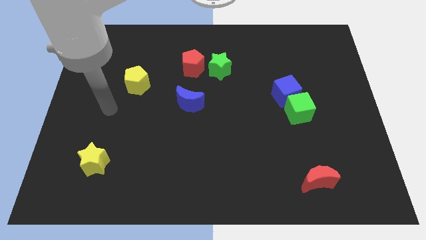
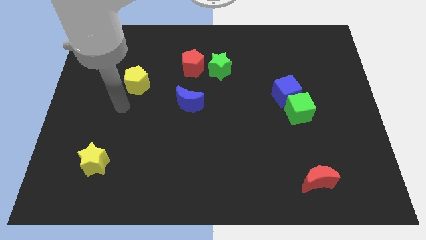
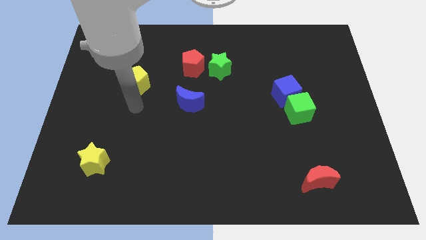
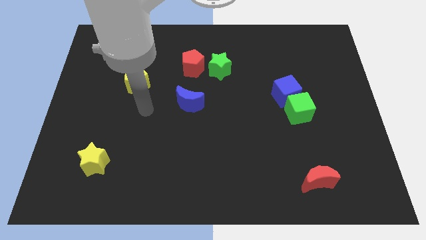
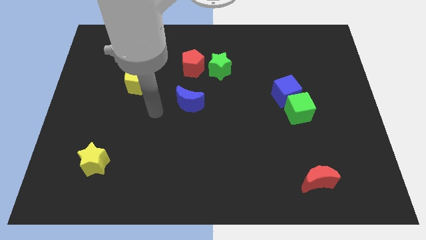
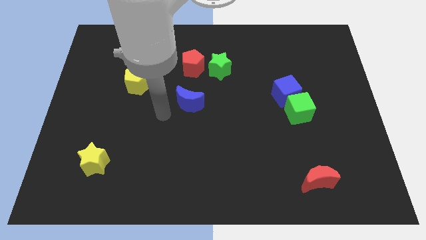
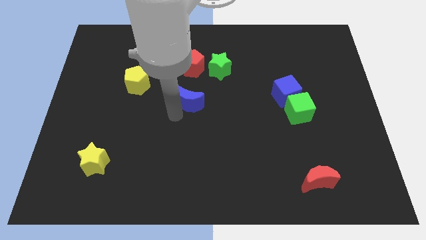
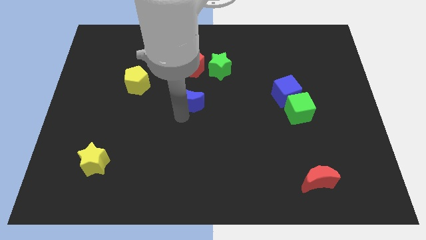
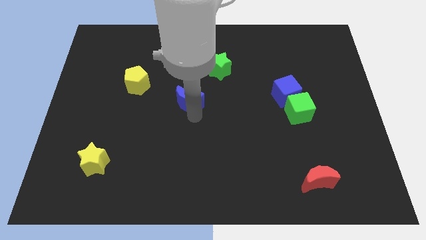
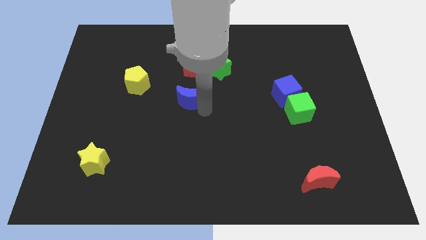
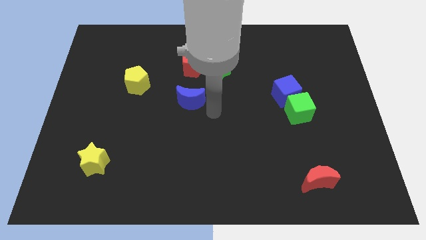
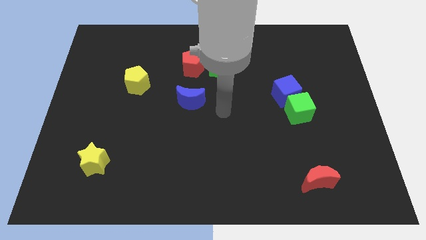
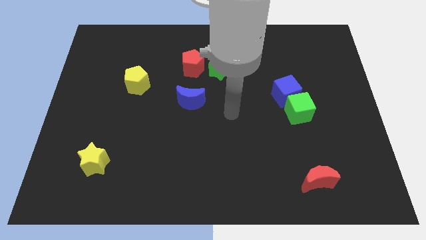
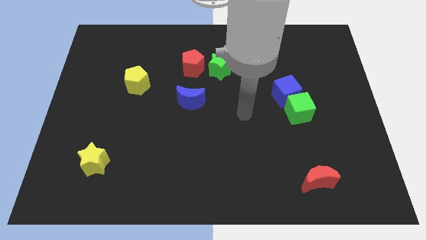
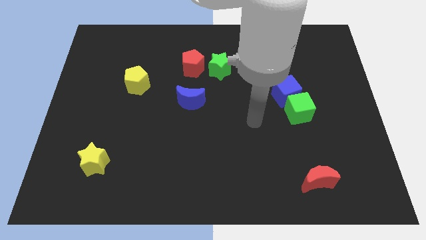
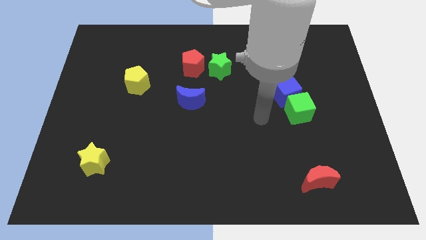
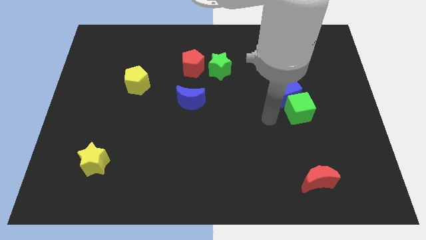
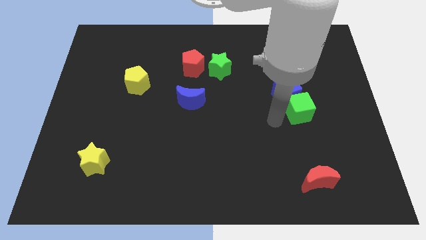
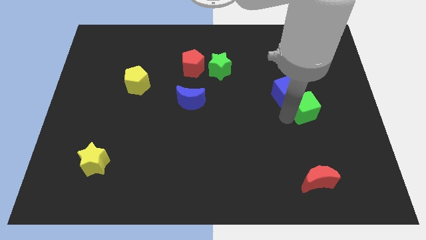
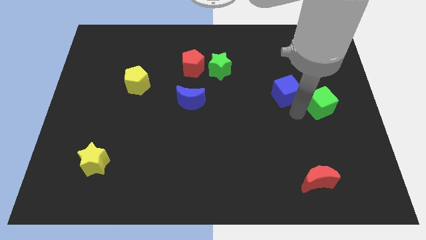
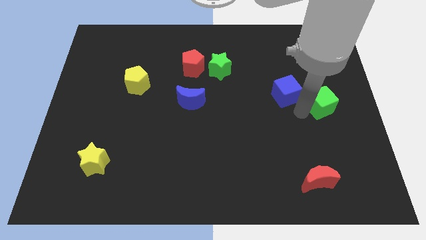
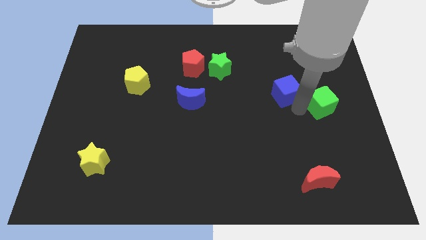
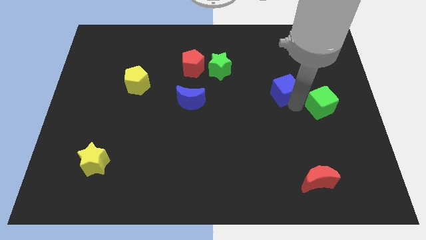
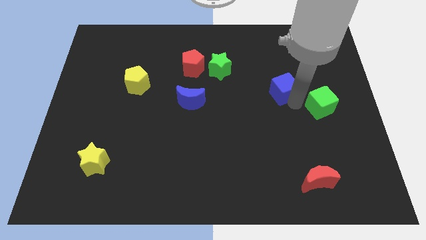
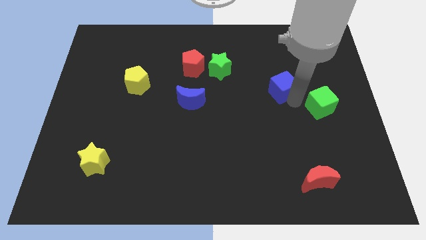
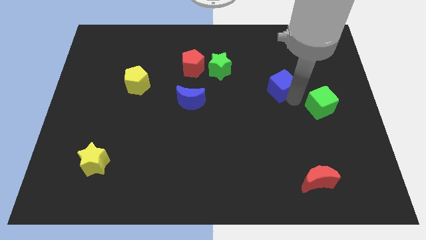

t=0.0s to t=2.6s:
move the blue cube away from the green cube

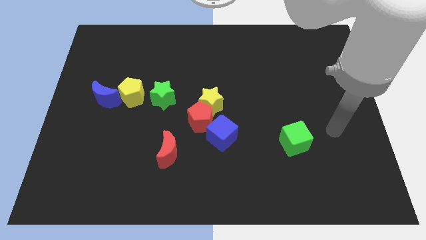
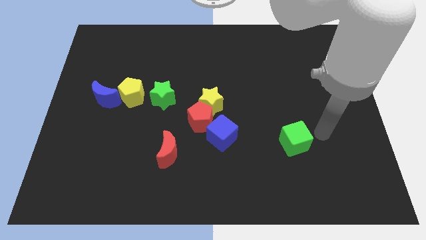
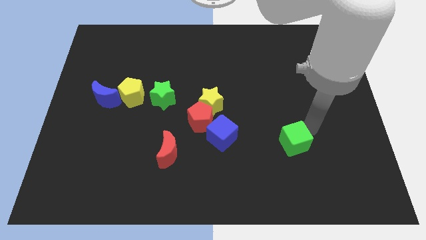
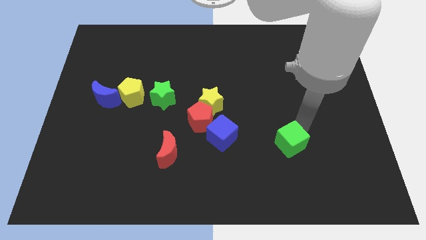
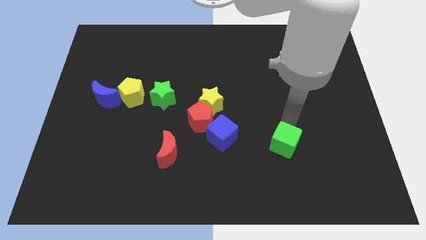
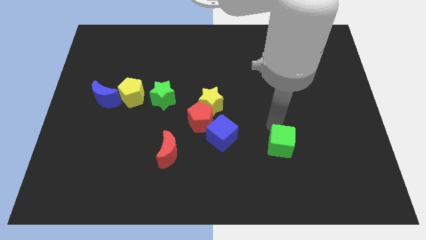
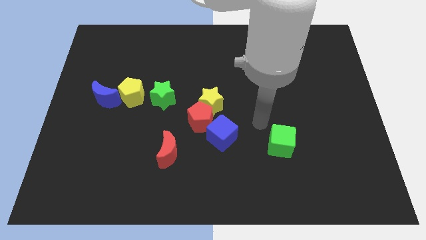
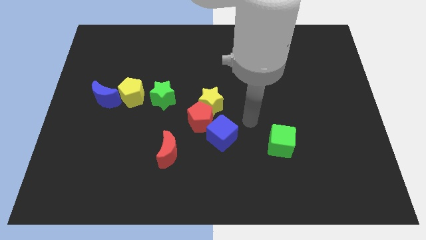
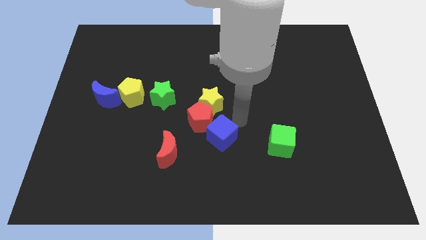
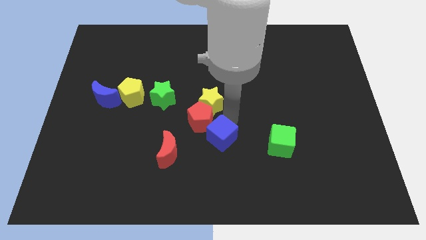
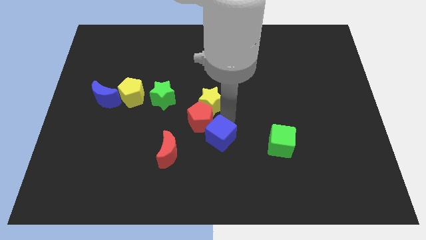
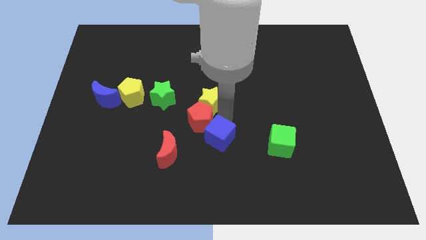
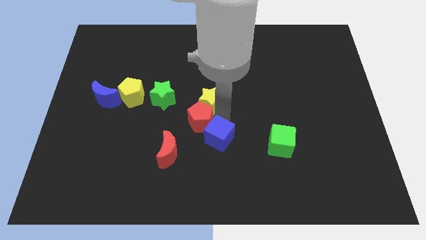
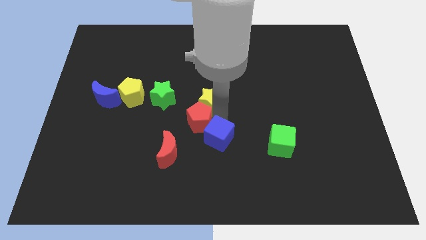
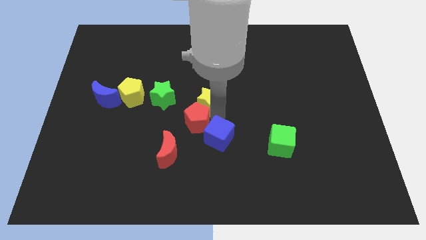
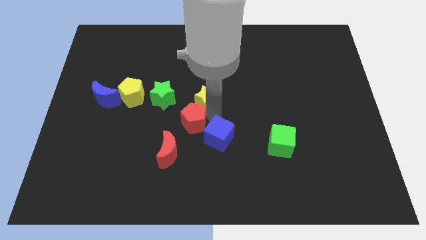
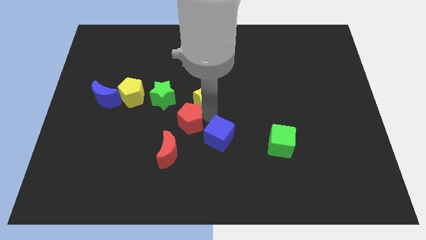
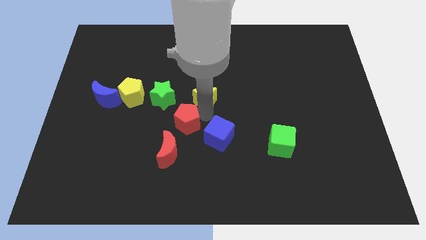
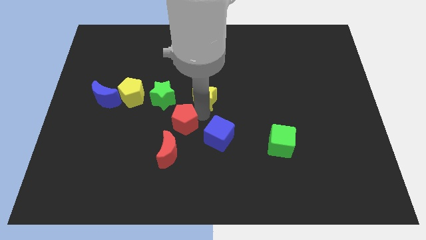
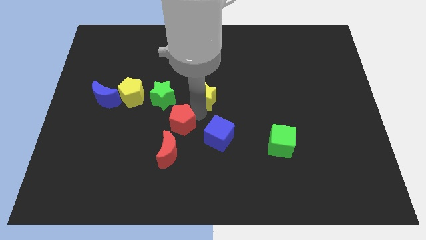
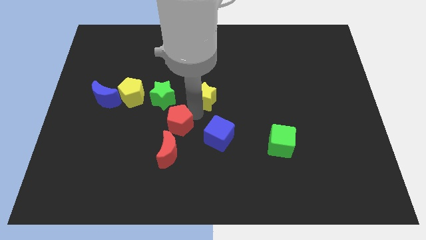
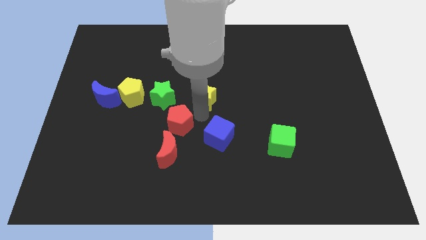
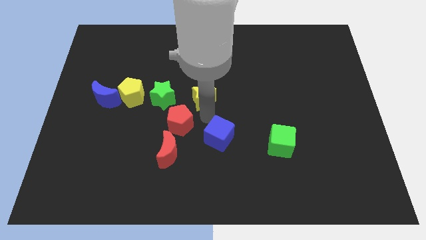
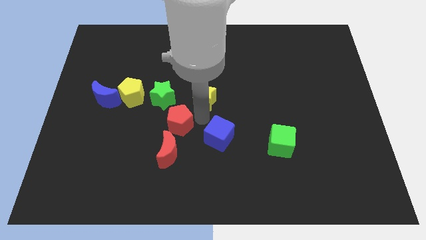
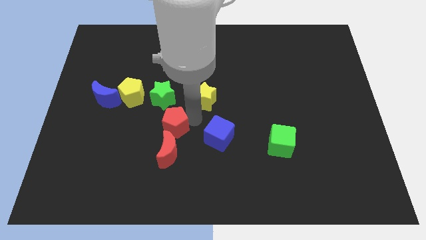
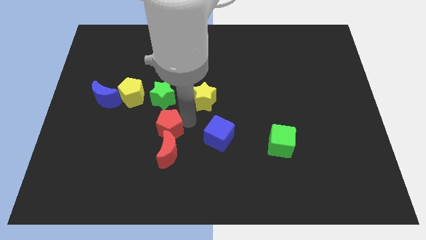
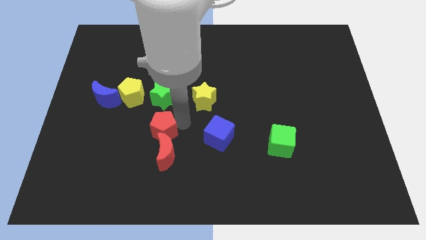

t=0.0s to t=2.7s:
separate the red pentagon from the yellow star and blue cube

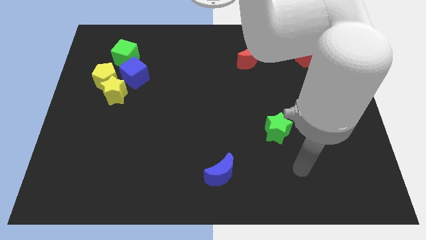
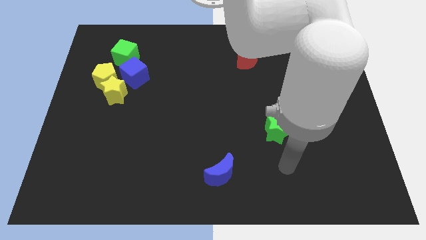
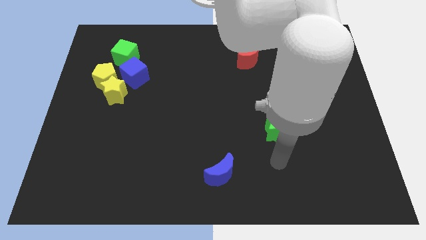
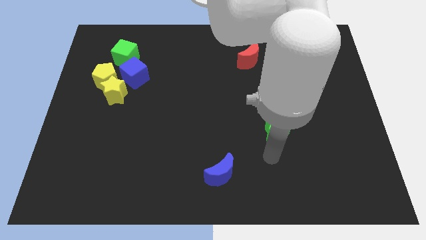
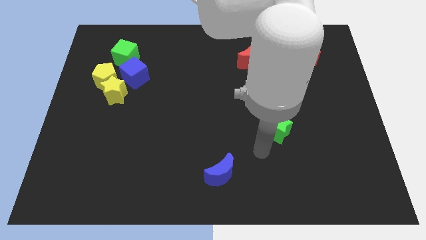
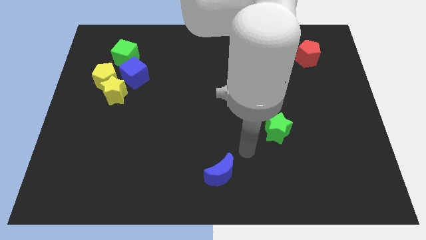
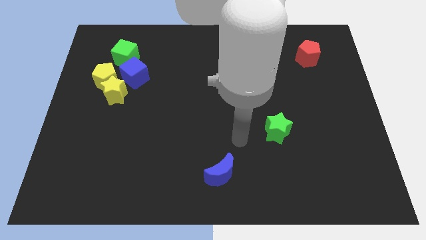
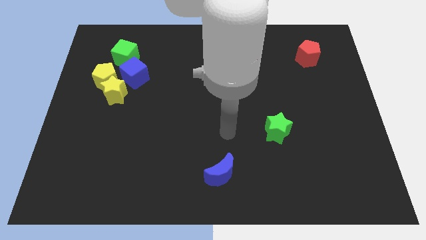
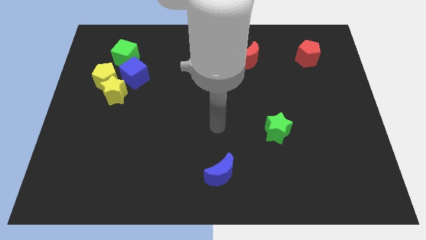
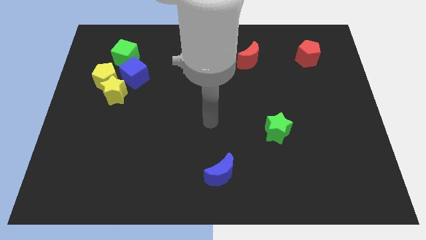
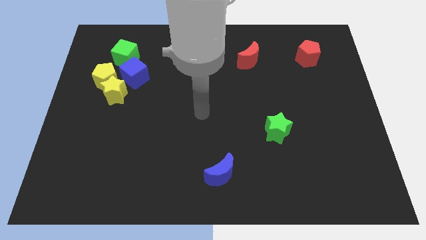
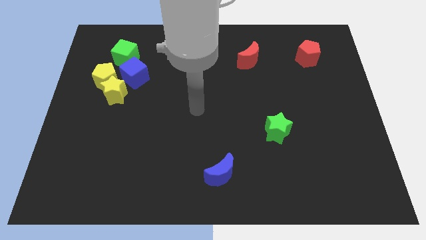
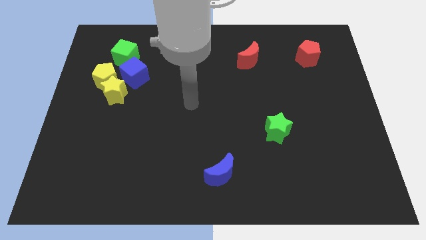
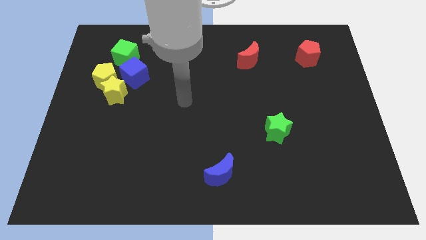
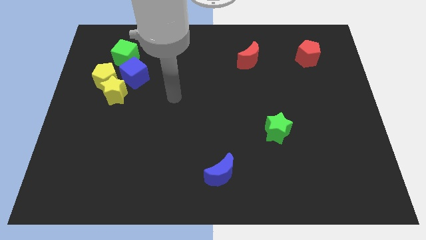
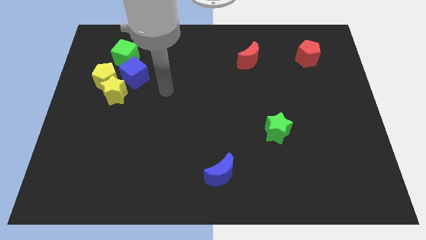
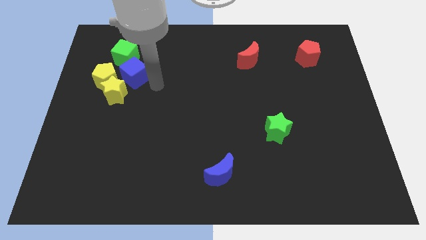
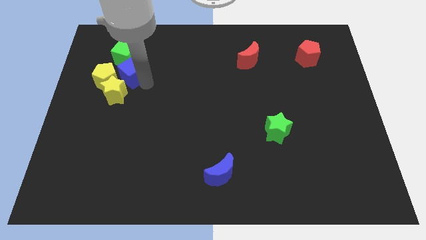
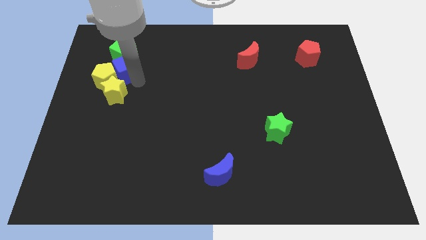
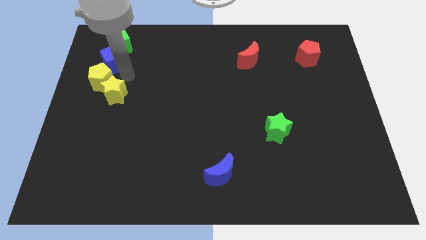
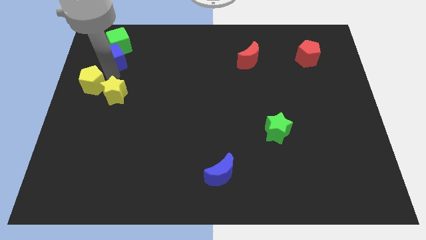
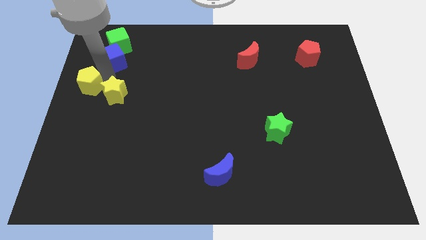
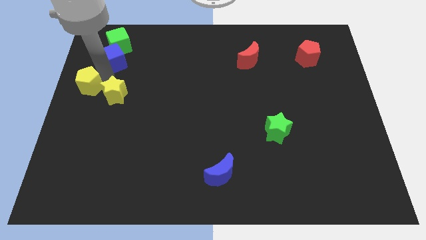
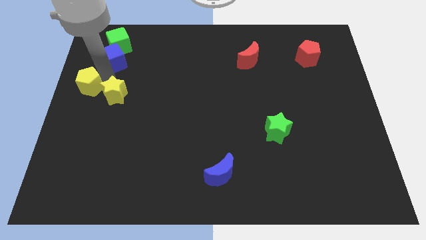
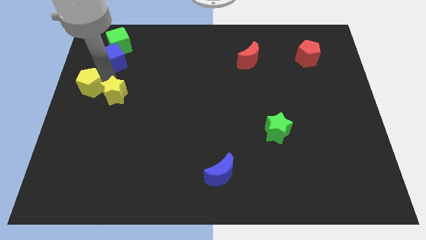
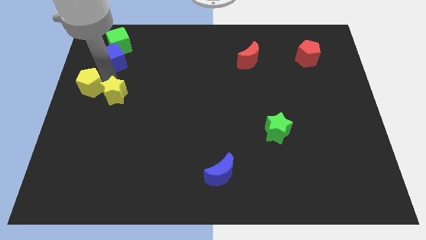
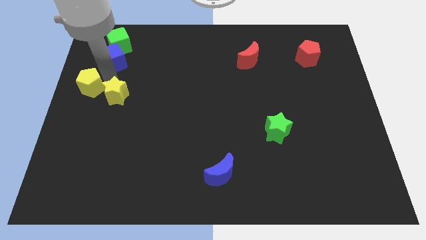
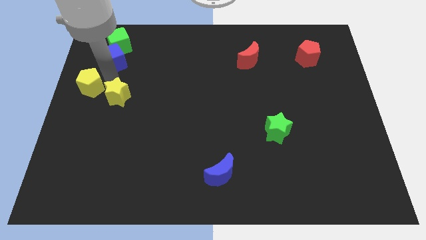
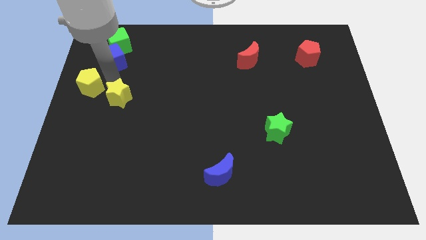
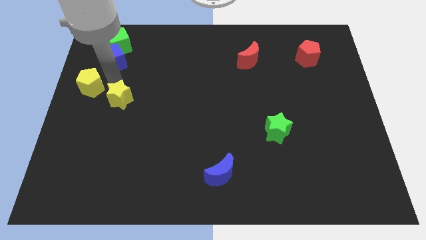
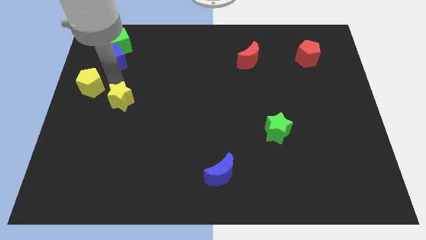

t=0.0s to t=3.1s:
separate the yellow star from the yellow pentagon and blue cube

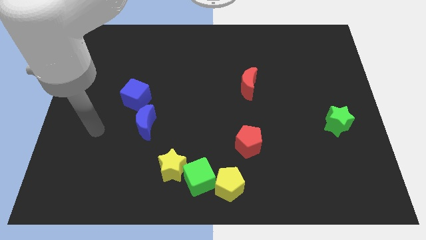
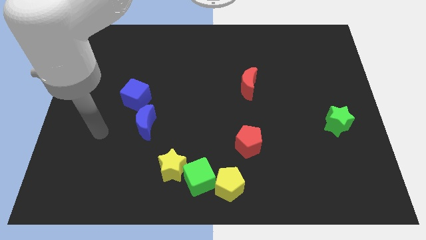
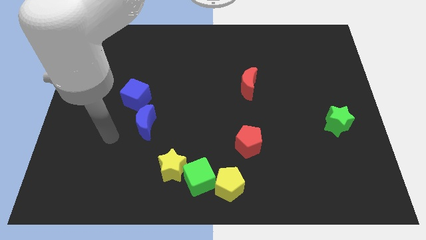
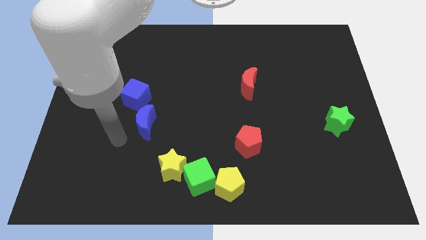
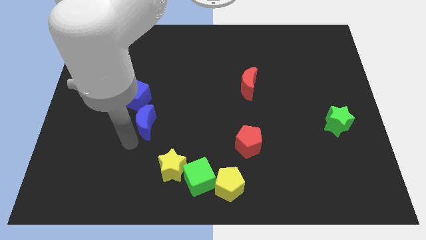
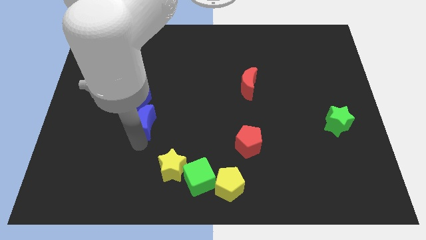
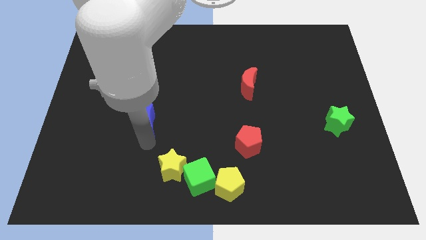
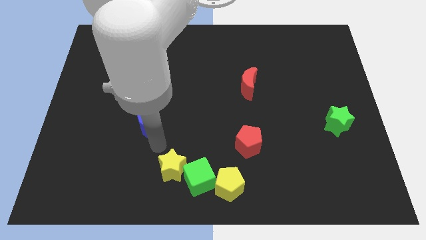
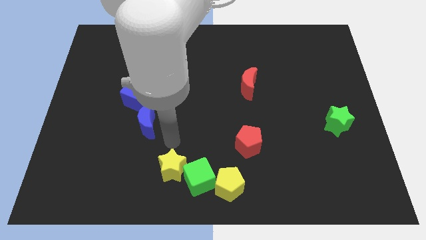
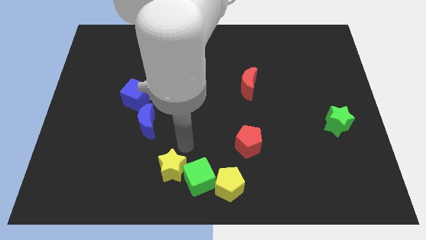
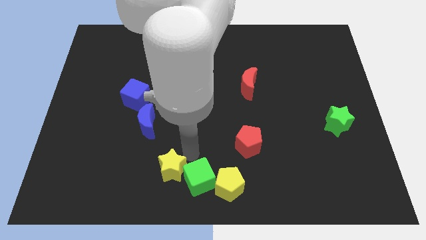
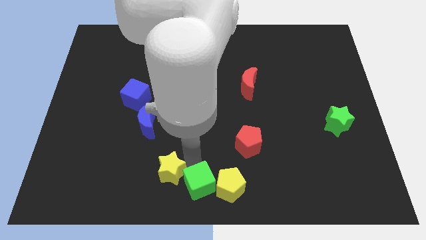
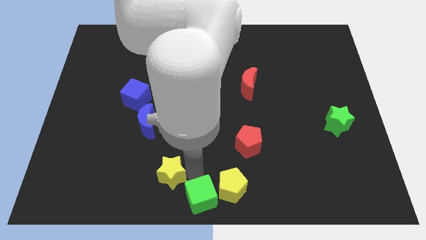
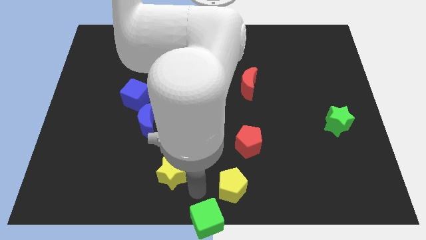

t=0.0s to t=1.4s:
pull the yellow star apart from the green cube
